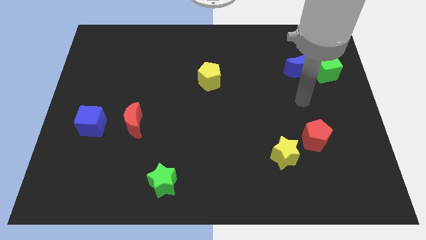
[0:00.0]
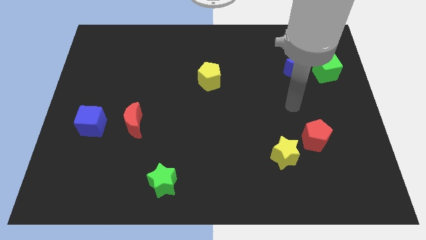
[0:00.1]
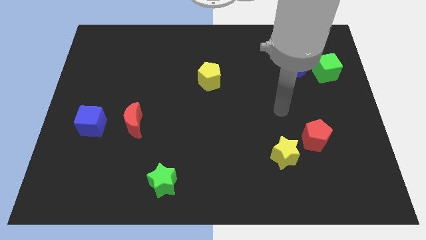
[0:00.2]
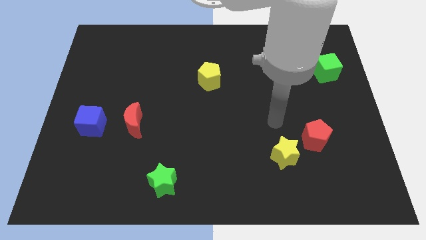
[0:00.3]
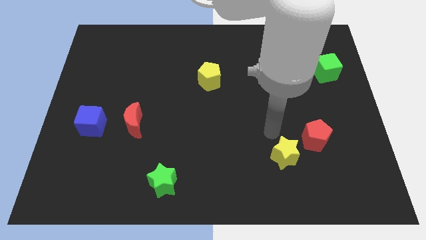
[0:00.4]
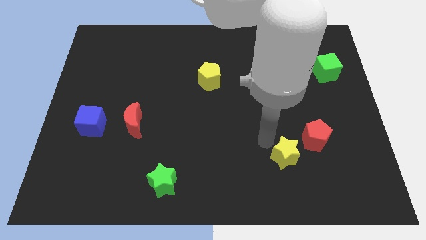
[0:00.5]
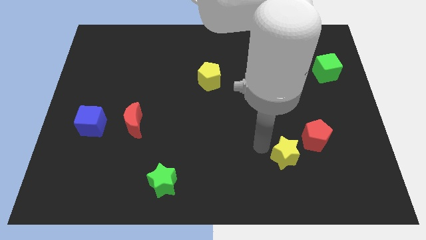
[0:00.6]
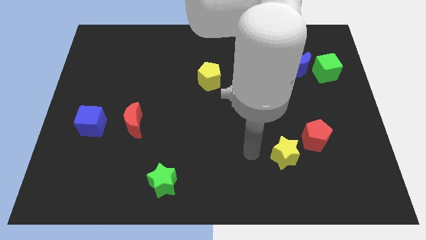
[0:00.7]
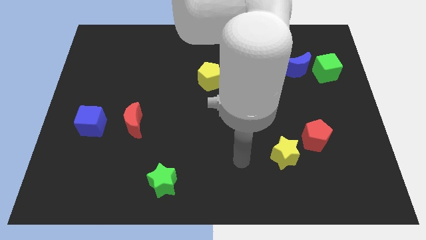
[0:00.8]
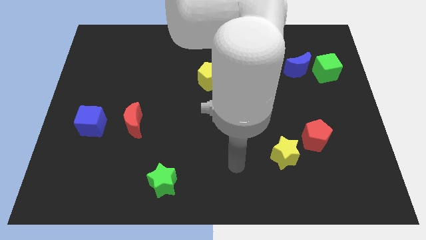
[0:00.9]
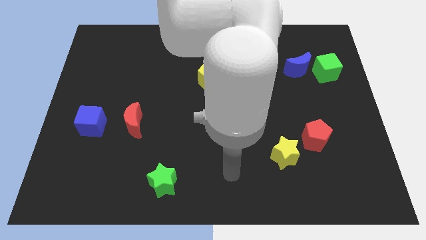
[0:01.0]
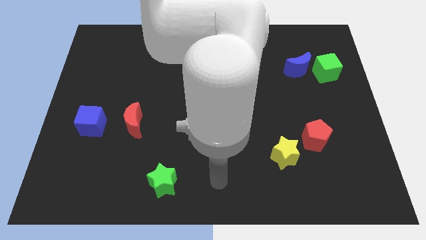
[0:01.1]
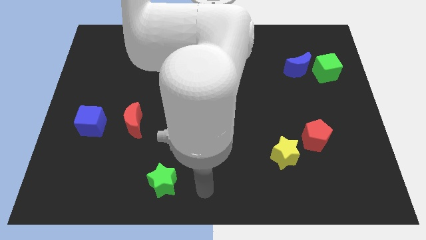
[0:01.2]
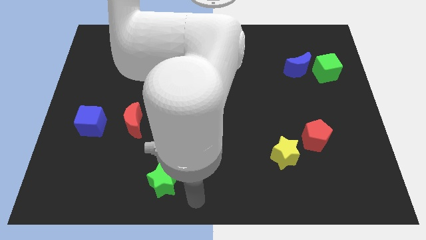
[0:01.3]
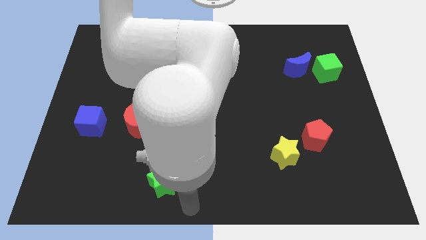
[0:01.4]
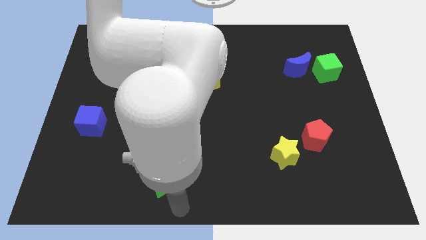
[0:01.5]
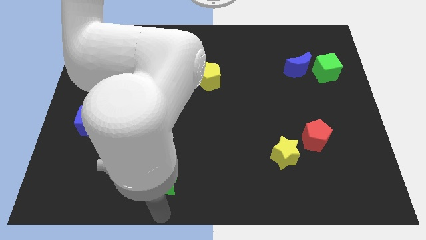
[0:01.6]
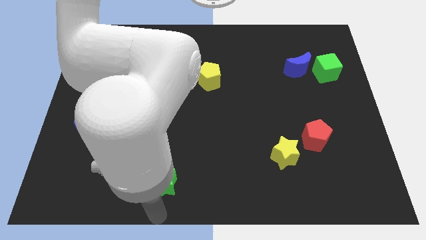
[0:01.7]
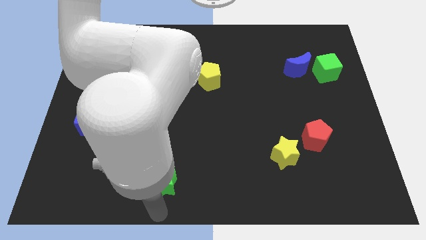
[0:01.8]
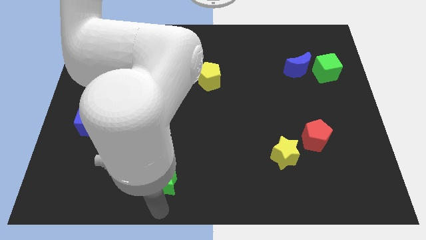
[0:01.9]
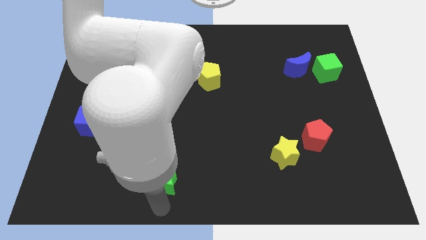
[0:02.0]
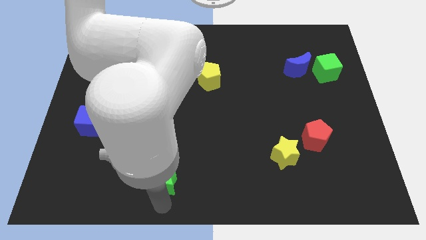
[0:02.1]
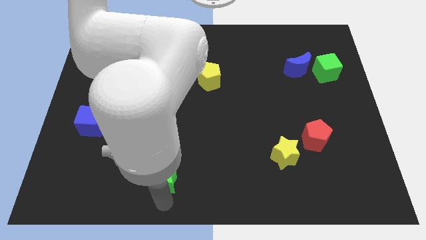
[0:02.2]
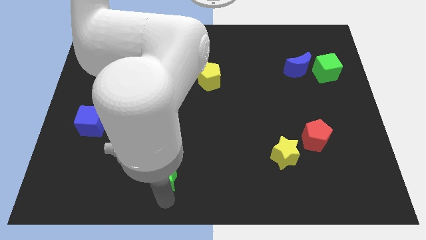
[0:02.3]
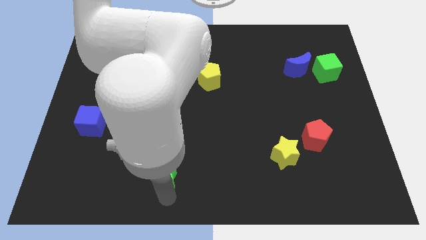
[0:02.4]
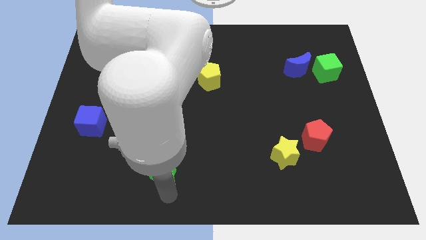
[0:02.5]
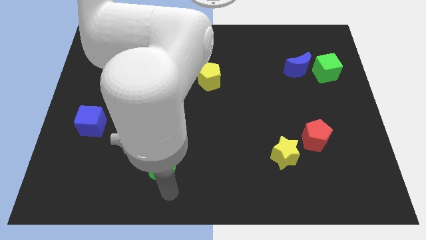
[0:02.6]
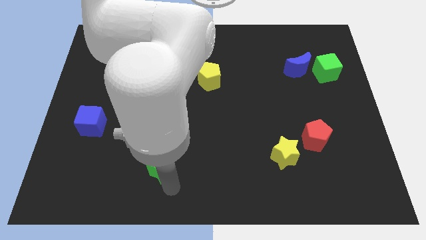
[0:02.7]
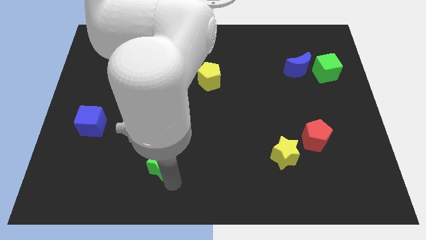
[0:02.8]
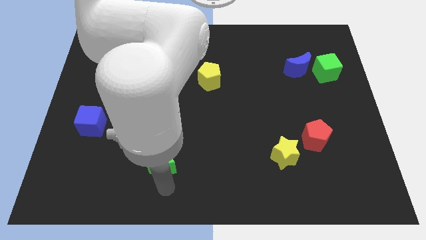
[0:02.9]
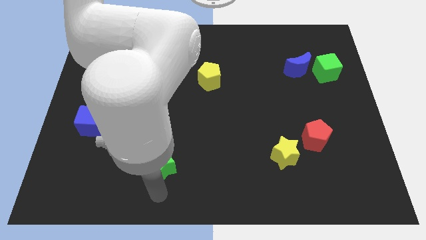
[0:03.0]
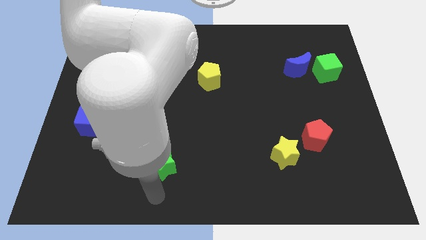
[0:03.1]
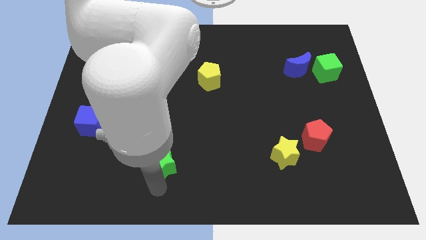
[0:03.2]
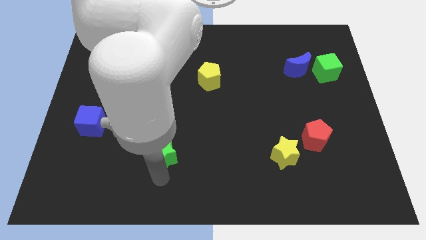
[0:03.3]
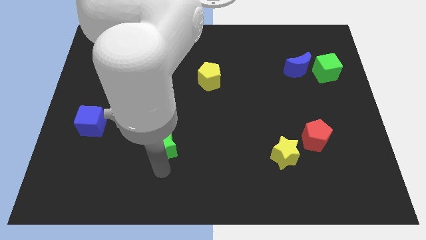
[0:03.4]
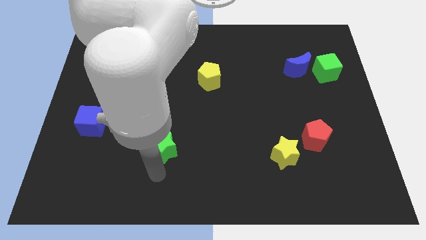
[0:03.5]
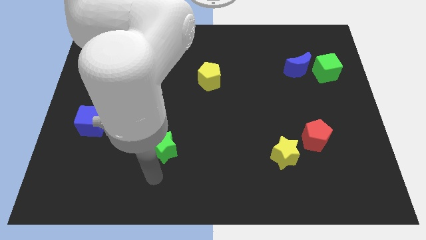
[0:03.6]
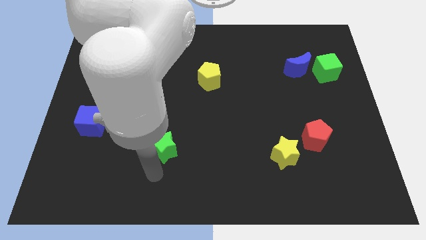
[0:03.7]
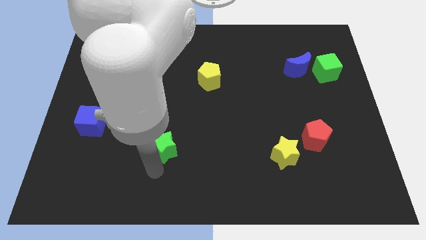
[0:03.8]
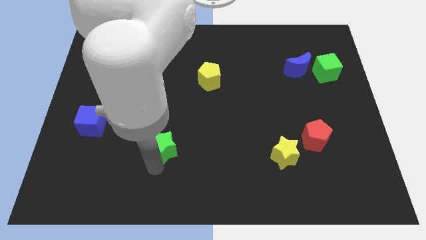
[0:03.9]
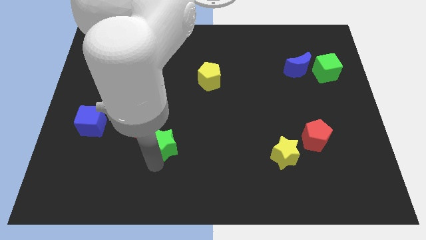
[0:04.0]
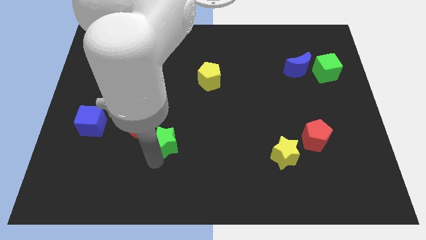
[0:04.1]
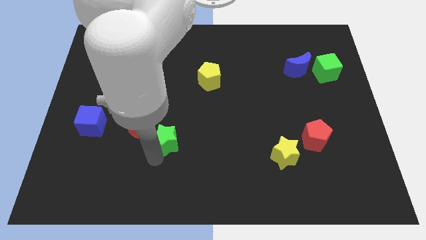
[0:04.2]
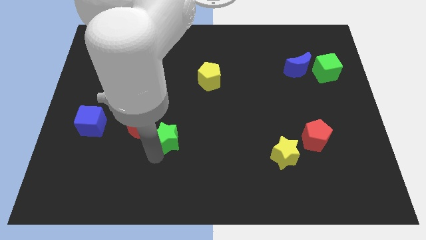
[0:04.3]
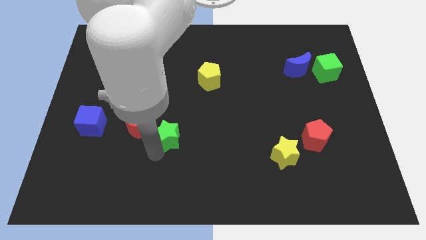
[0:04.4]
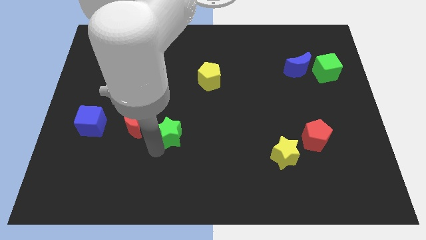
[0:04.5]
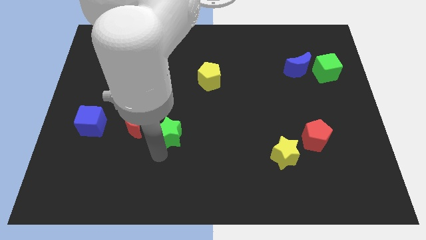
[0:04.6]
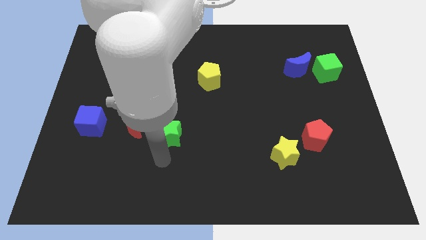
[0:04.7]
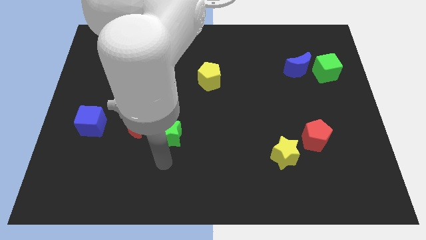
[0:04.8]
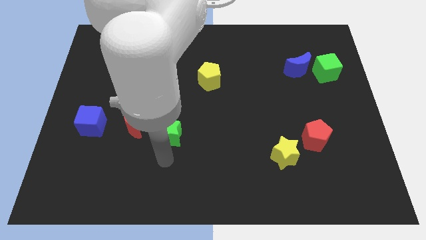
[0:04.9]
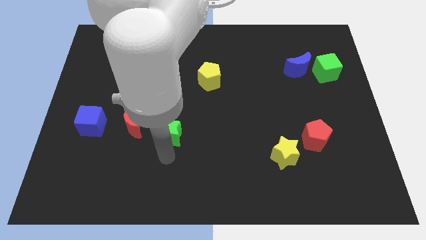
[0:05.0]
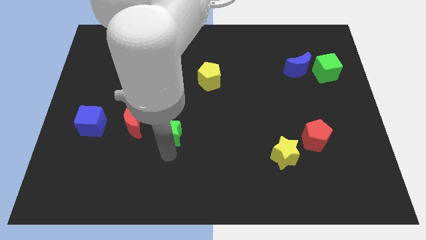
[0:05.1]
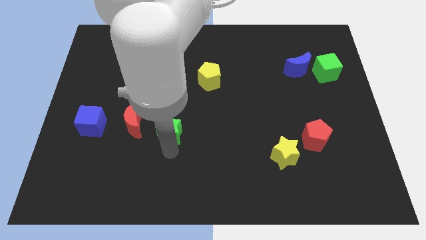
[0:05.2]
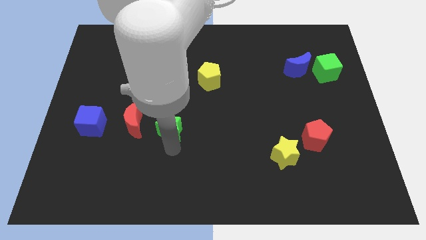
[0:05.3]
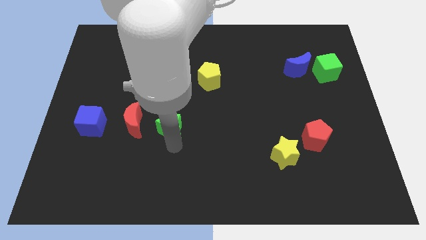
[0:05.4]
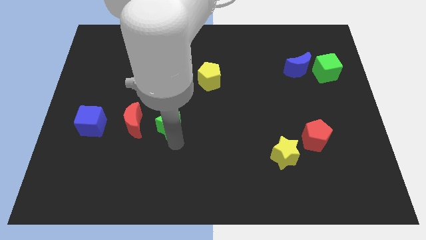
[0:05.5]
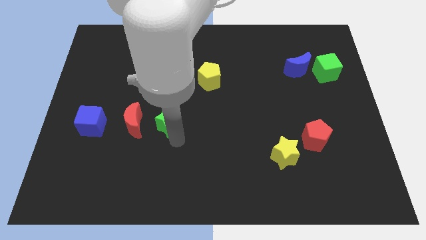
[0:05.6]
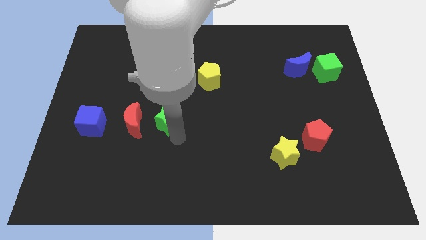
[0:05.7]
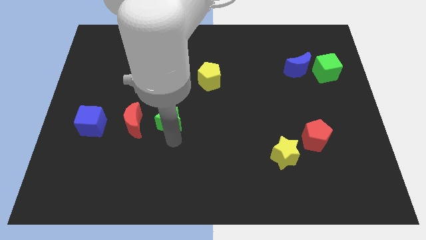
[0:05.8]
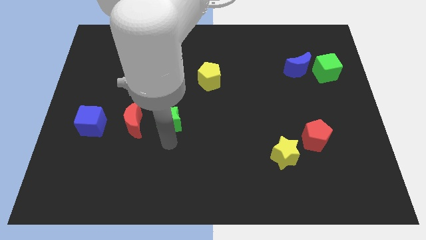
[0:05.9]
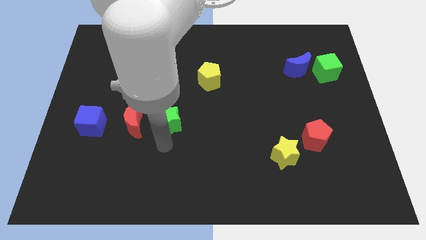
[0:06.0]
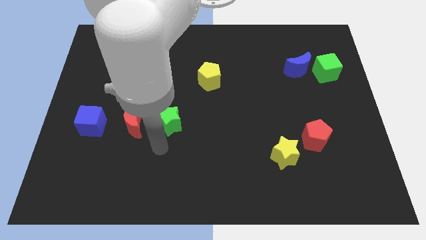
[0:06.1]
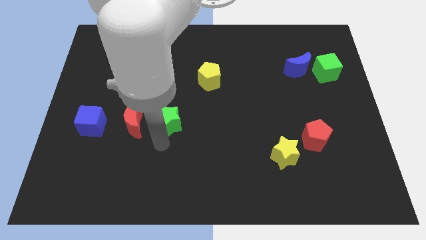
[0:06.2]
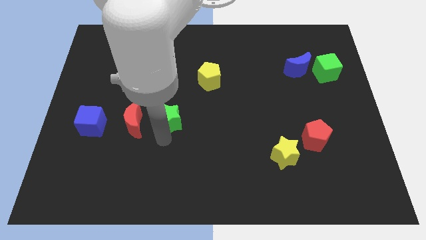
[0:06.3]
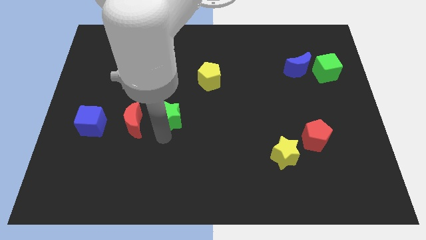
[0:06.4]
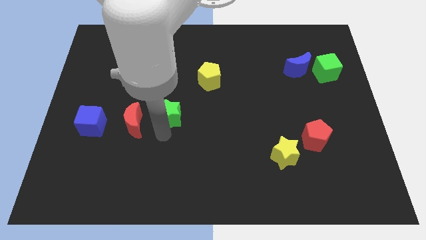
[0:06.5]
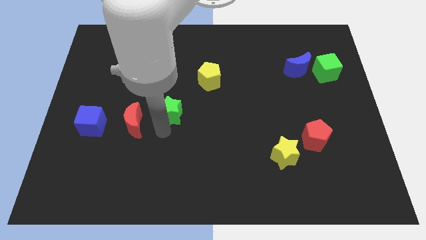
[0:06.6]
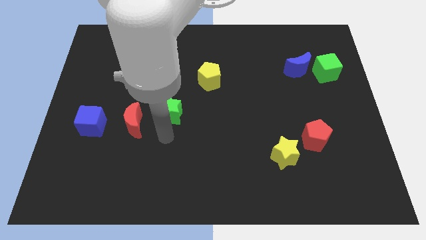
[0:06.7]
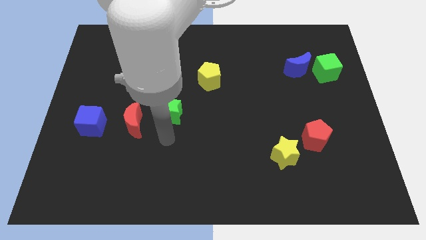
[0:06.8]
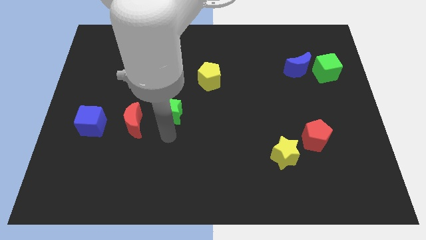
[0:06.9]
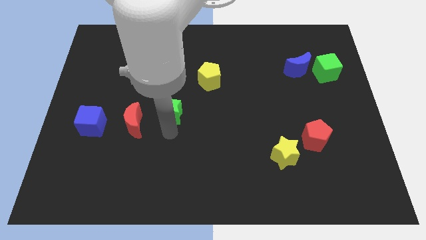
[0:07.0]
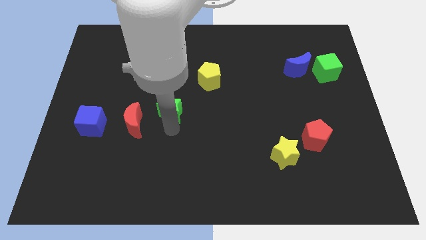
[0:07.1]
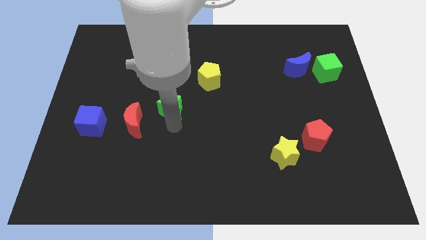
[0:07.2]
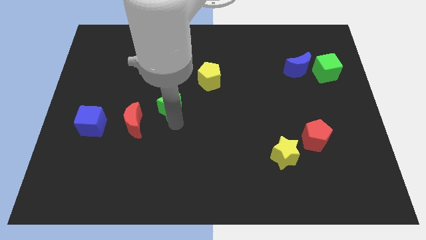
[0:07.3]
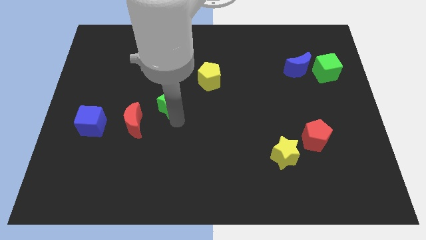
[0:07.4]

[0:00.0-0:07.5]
slide the green star up

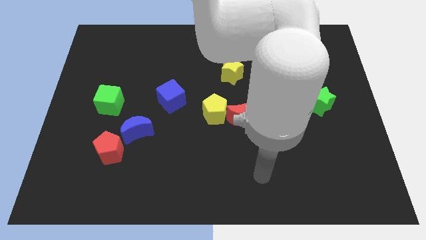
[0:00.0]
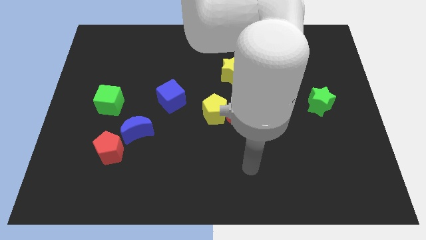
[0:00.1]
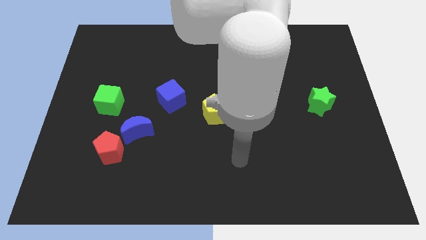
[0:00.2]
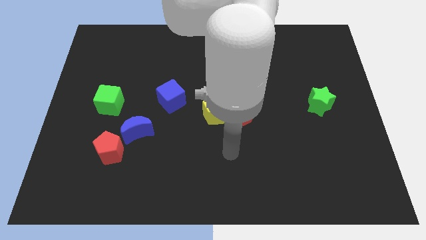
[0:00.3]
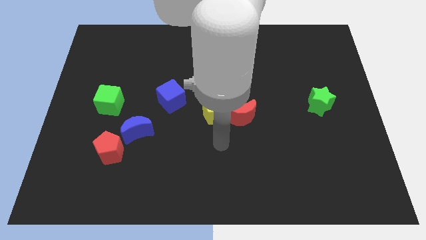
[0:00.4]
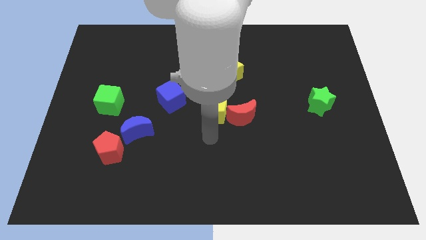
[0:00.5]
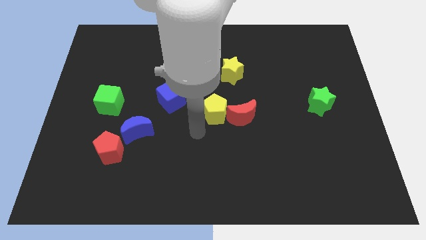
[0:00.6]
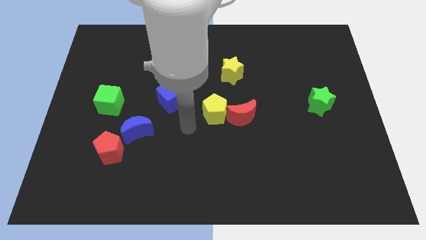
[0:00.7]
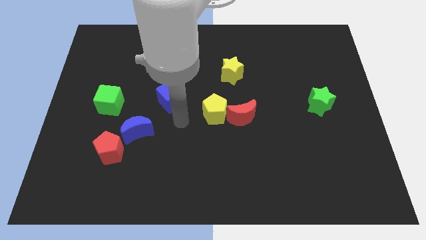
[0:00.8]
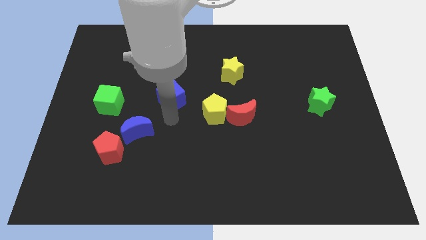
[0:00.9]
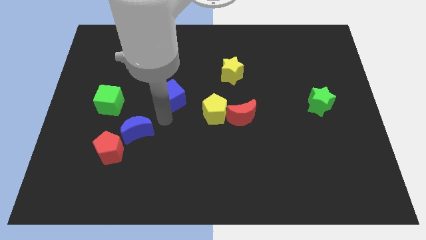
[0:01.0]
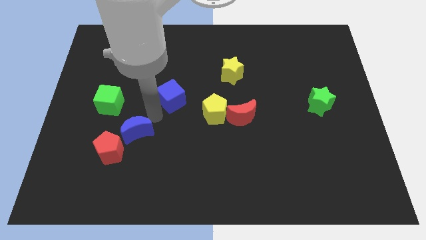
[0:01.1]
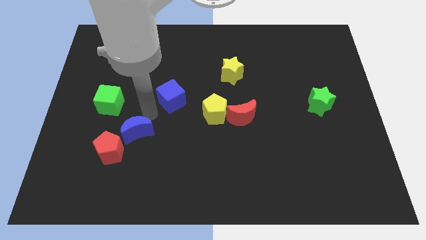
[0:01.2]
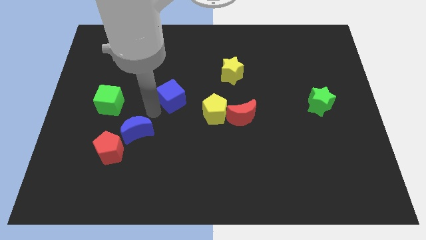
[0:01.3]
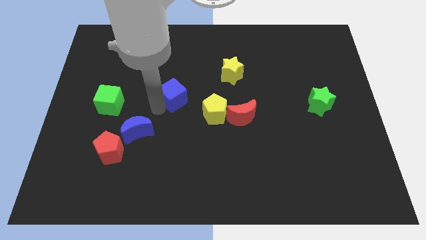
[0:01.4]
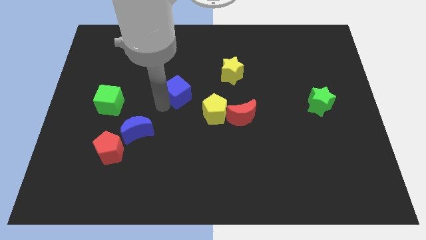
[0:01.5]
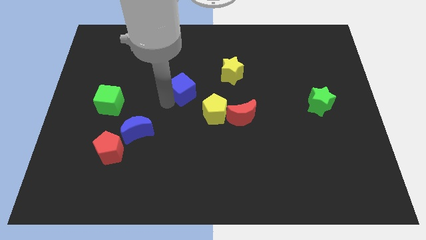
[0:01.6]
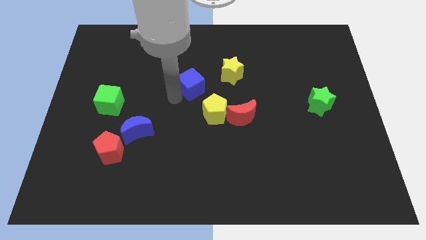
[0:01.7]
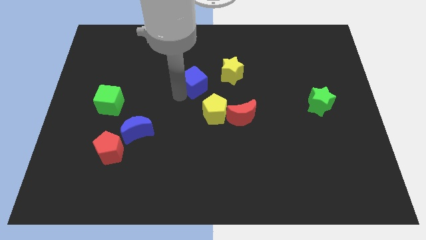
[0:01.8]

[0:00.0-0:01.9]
slightly push the blue cube up and to the right diagonally
